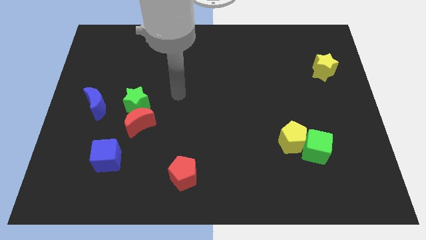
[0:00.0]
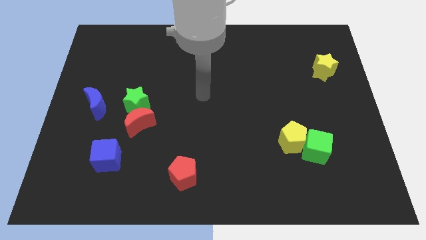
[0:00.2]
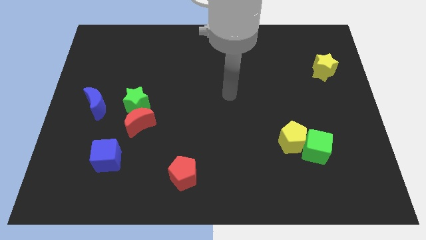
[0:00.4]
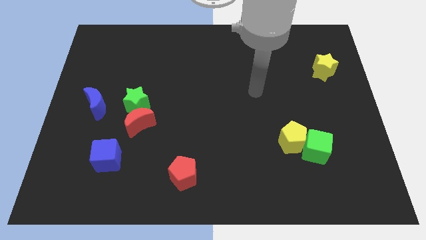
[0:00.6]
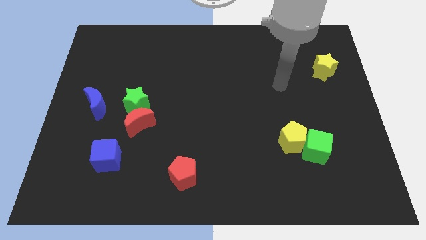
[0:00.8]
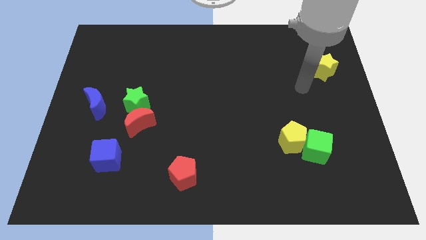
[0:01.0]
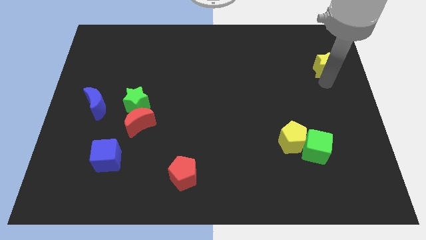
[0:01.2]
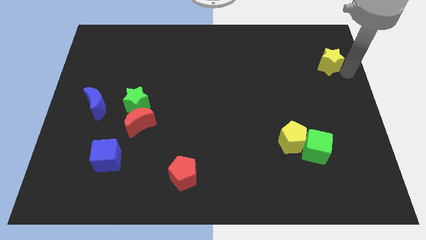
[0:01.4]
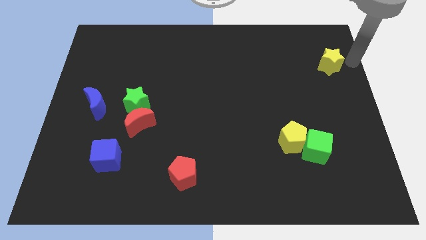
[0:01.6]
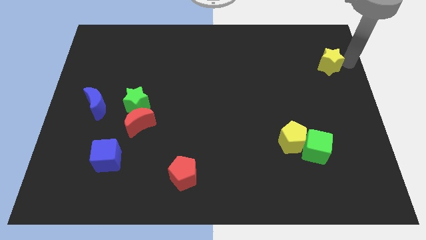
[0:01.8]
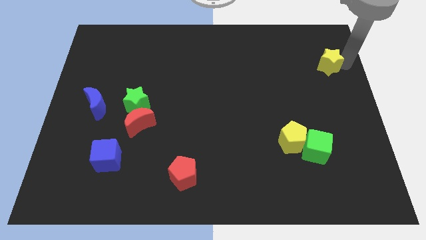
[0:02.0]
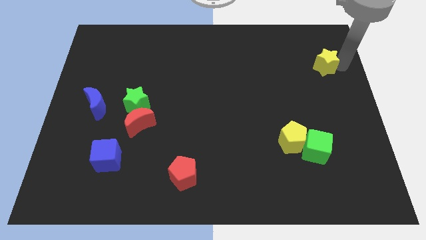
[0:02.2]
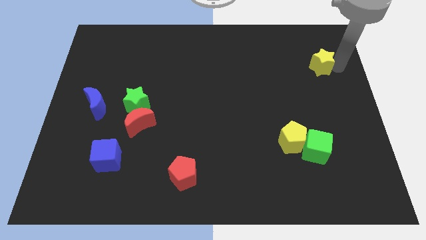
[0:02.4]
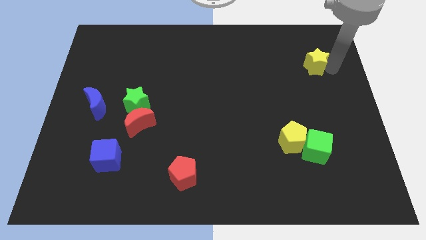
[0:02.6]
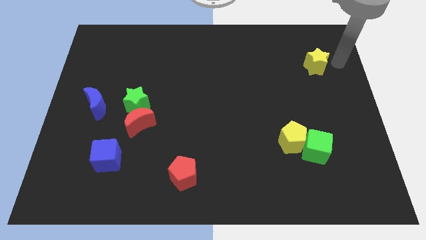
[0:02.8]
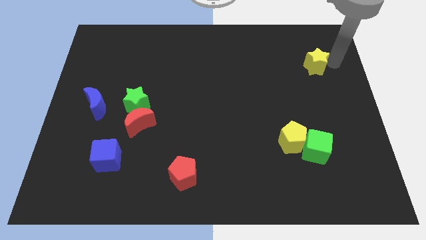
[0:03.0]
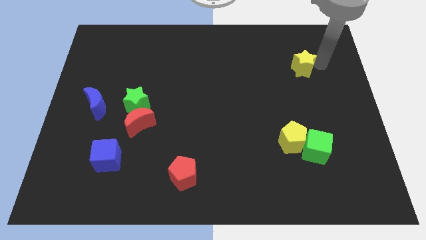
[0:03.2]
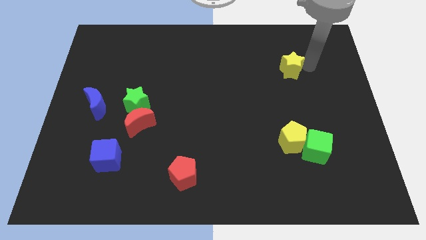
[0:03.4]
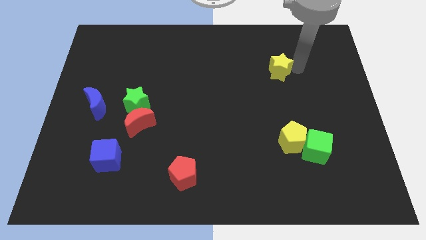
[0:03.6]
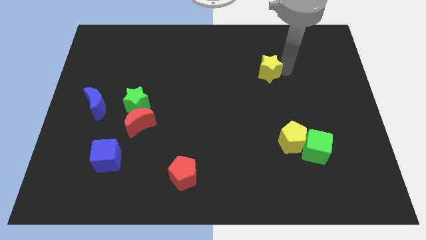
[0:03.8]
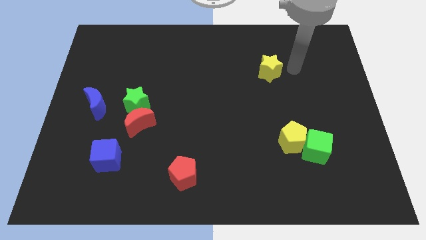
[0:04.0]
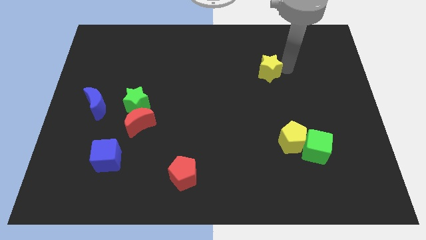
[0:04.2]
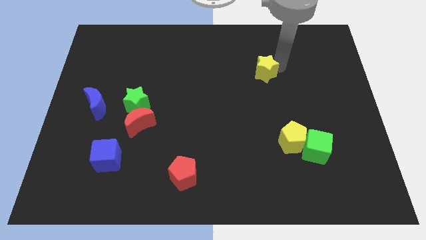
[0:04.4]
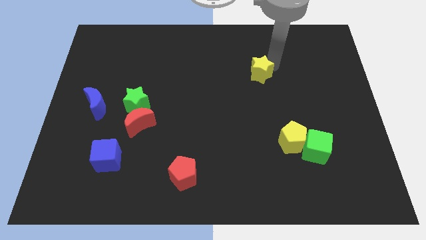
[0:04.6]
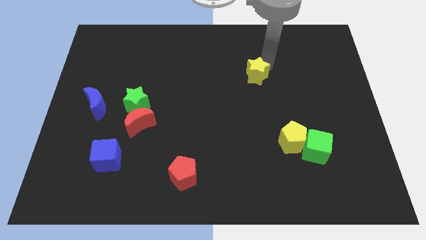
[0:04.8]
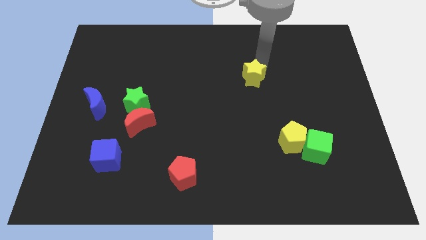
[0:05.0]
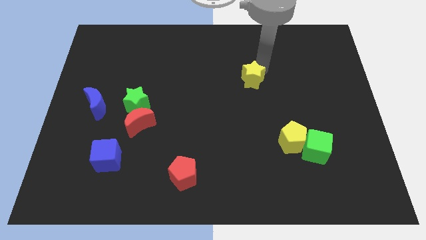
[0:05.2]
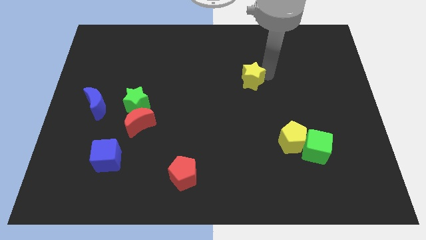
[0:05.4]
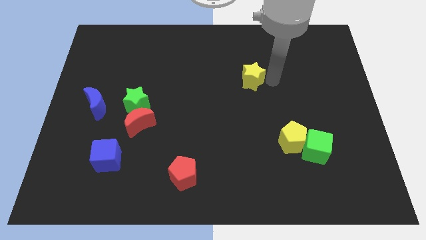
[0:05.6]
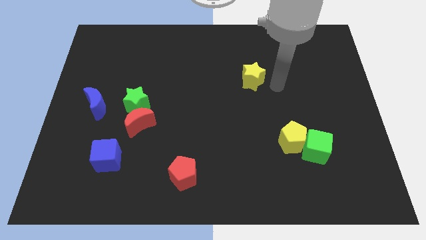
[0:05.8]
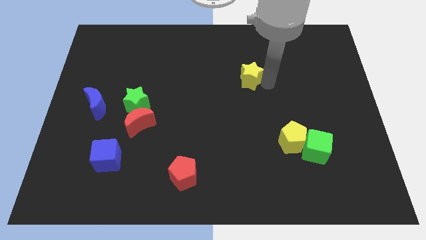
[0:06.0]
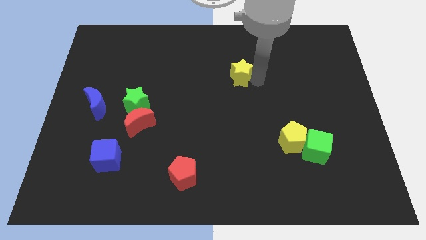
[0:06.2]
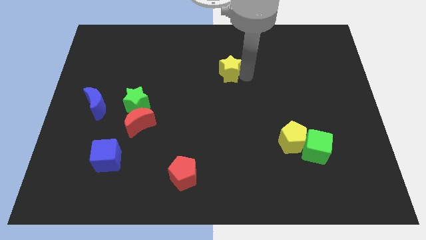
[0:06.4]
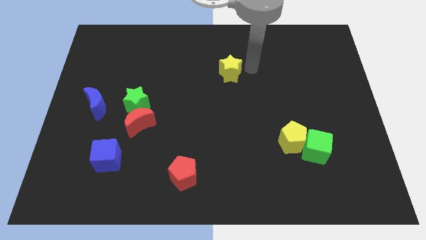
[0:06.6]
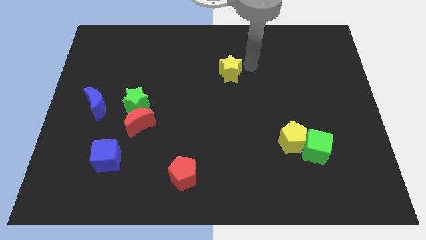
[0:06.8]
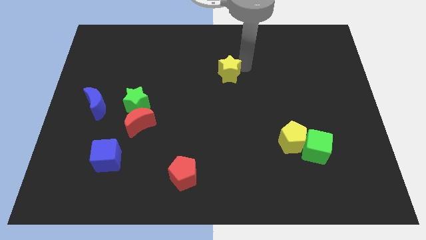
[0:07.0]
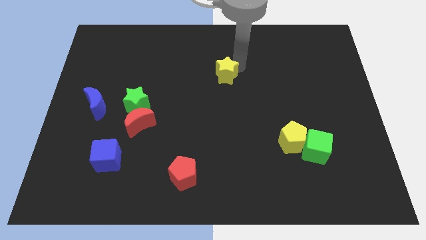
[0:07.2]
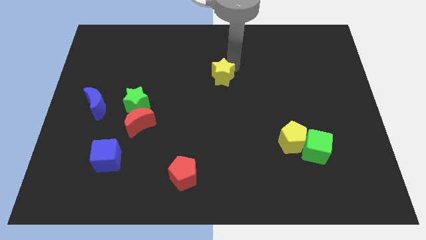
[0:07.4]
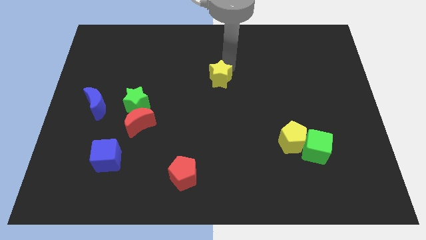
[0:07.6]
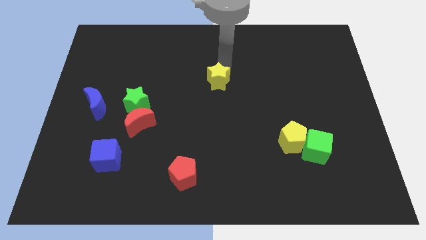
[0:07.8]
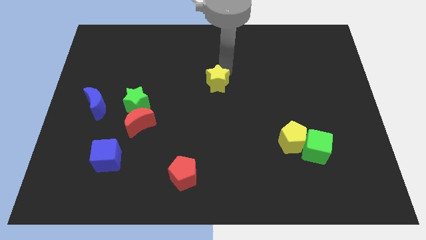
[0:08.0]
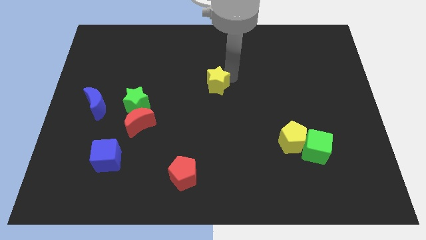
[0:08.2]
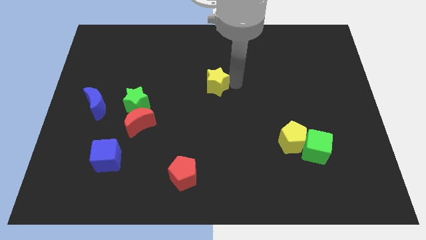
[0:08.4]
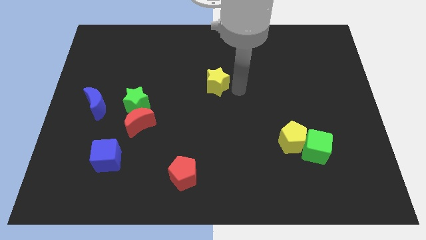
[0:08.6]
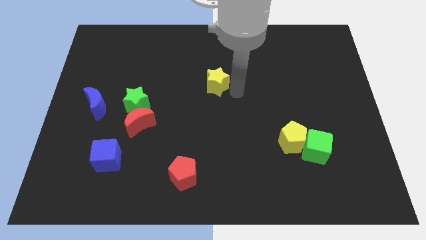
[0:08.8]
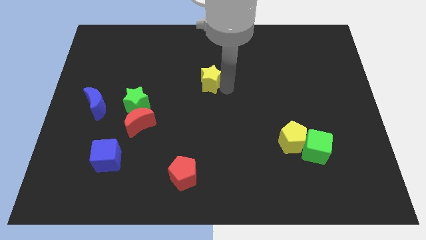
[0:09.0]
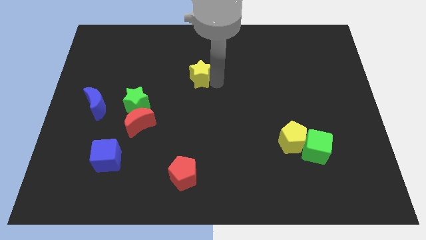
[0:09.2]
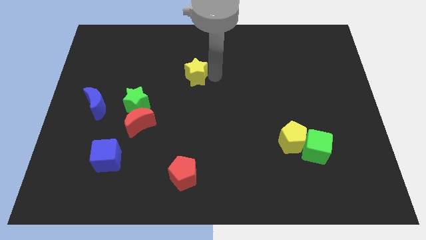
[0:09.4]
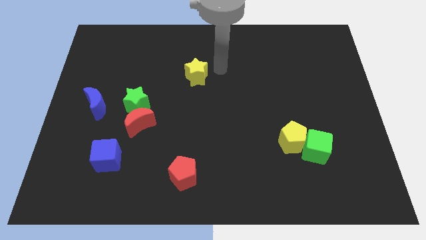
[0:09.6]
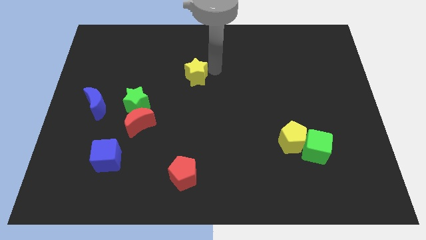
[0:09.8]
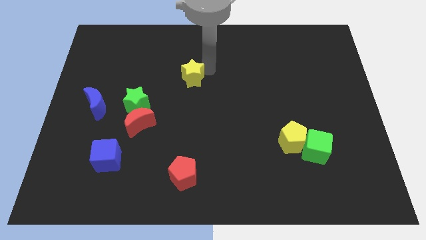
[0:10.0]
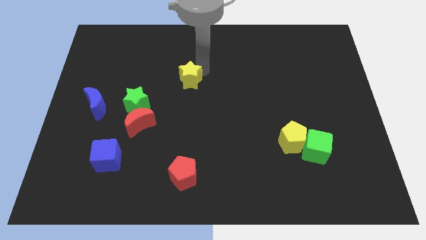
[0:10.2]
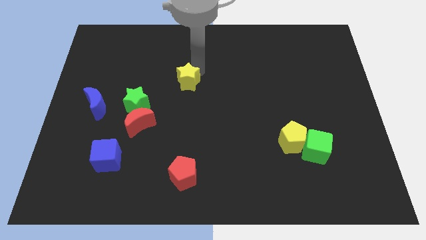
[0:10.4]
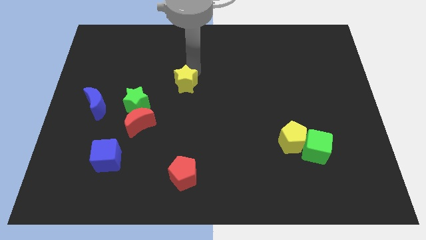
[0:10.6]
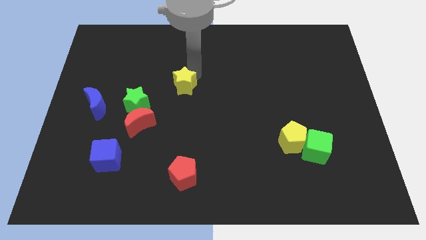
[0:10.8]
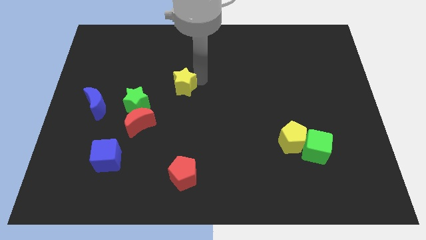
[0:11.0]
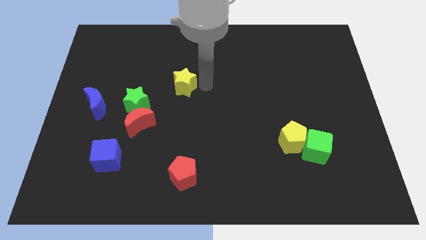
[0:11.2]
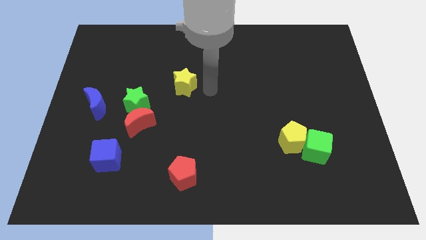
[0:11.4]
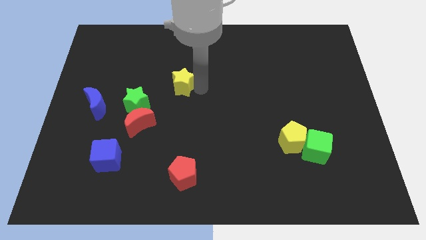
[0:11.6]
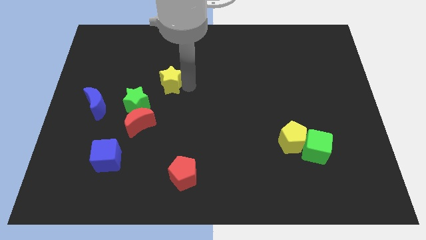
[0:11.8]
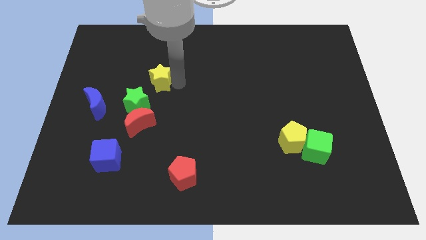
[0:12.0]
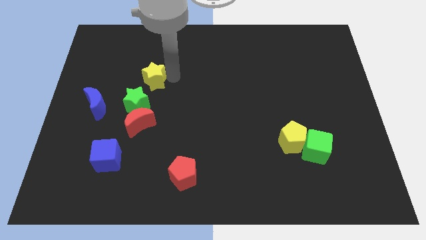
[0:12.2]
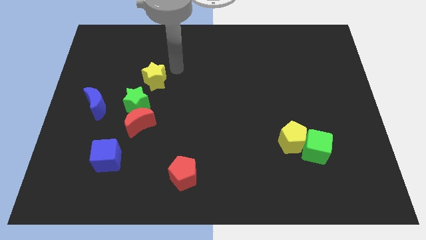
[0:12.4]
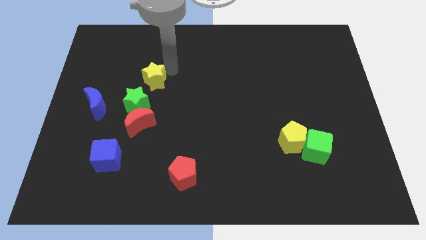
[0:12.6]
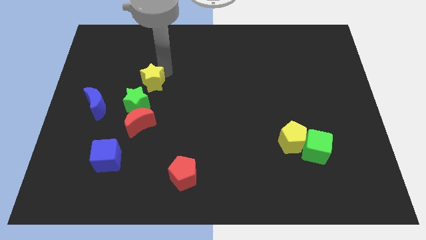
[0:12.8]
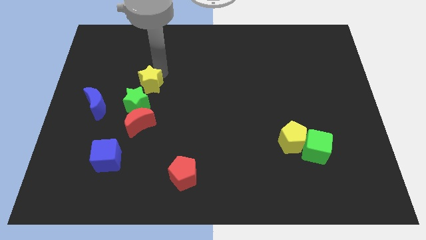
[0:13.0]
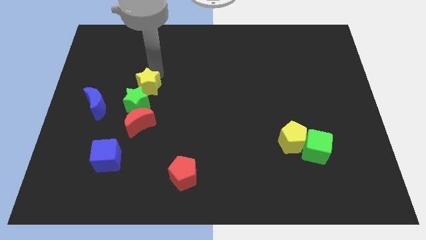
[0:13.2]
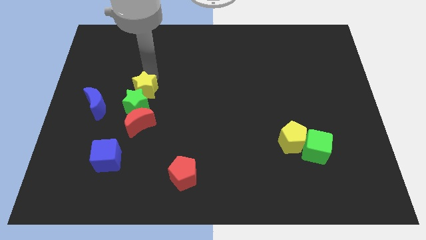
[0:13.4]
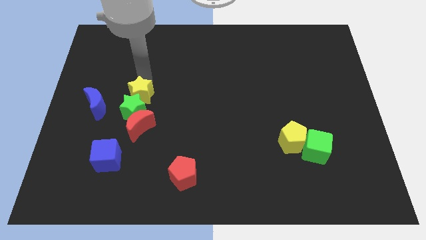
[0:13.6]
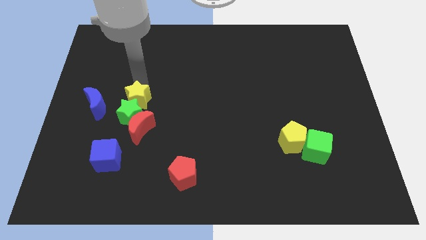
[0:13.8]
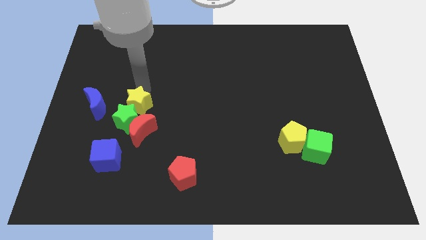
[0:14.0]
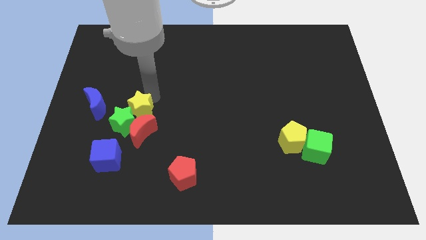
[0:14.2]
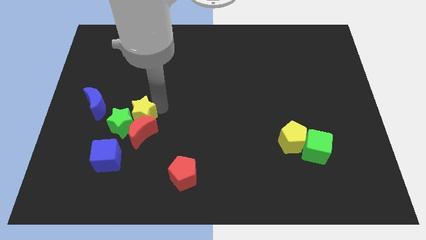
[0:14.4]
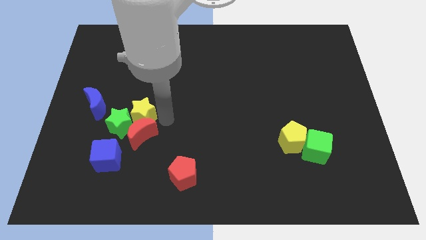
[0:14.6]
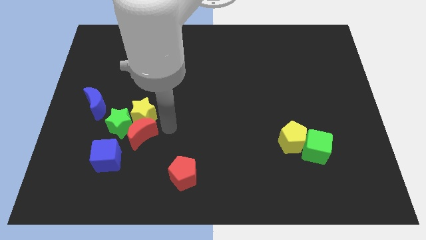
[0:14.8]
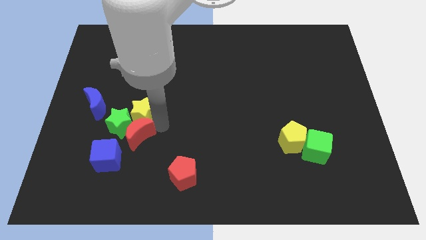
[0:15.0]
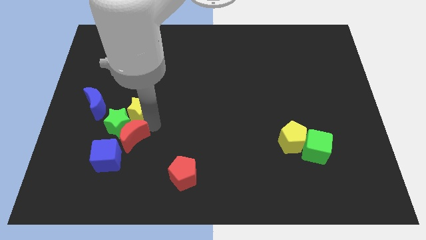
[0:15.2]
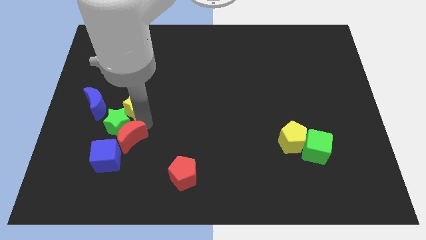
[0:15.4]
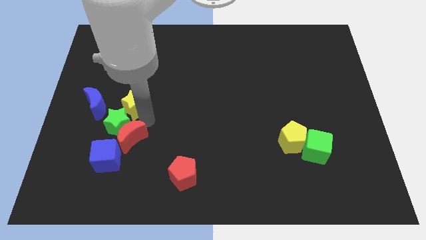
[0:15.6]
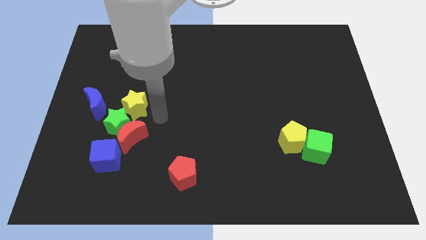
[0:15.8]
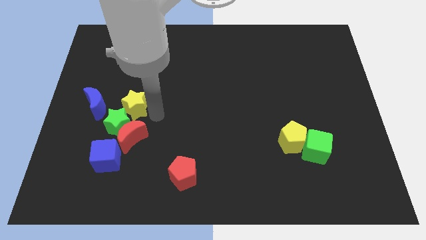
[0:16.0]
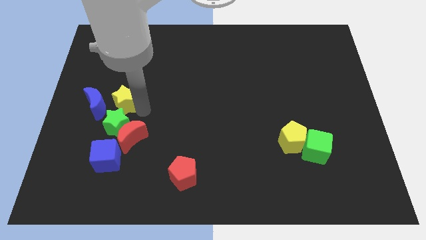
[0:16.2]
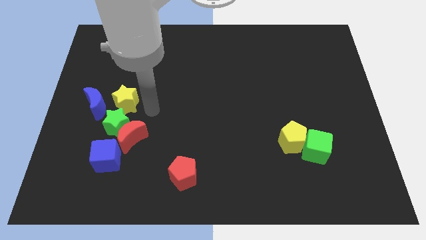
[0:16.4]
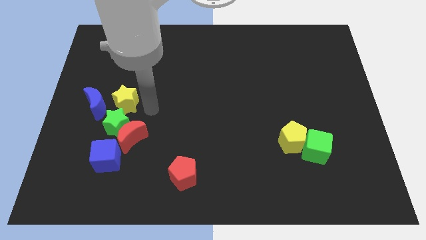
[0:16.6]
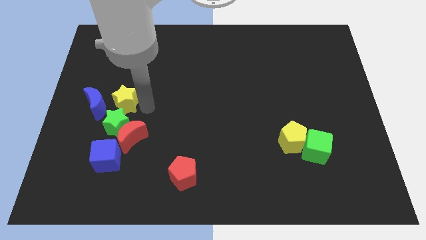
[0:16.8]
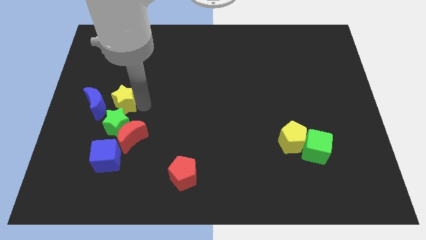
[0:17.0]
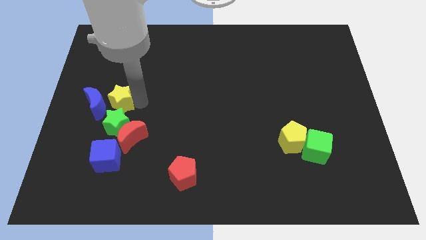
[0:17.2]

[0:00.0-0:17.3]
slide the yellow star to the blue moon
